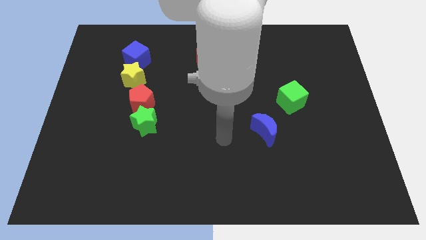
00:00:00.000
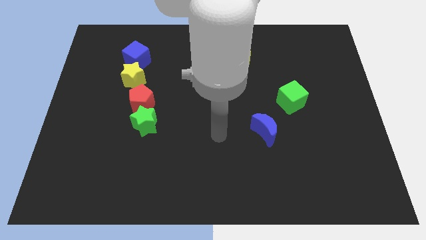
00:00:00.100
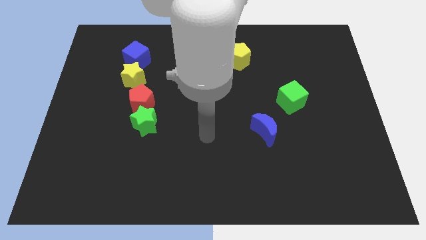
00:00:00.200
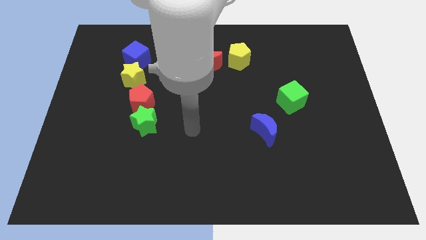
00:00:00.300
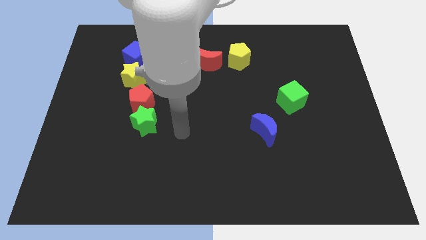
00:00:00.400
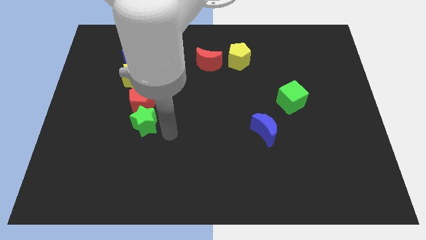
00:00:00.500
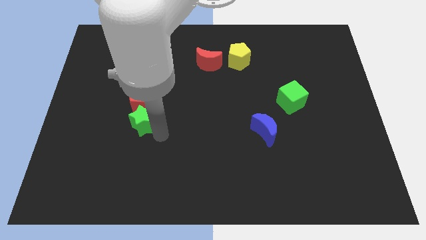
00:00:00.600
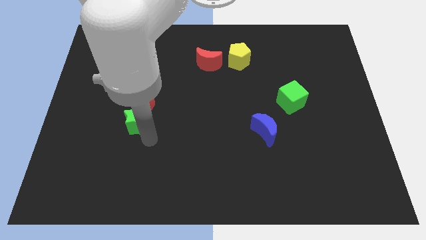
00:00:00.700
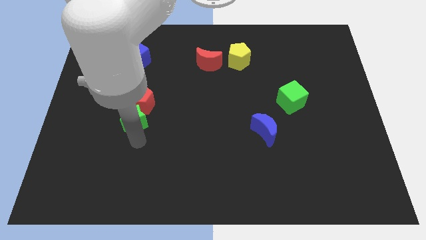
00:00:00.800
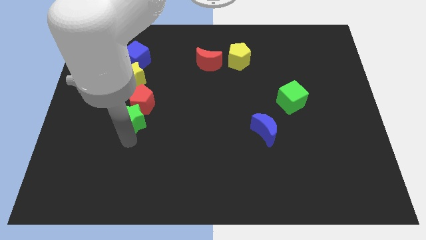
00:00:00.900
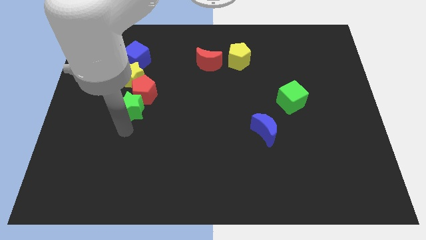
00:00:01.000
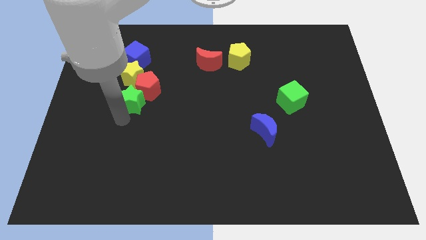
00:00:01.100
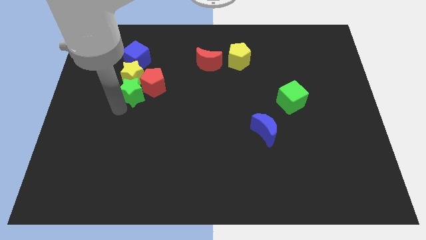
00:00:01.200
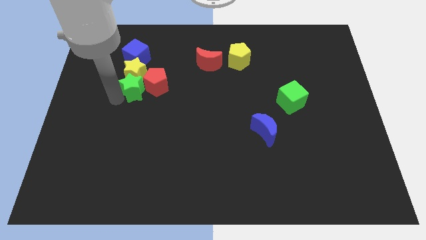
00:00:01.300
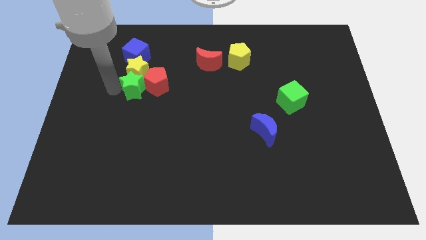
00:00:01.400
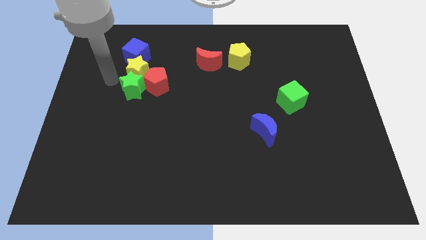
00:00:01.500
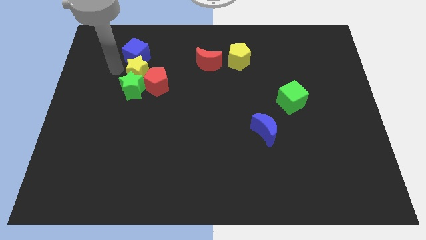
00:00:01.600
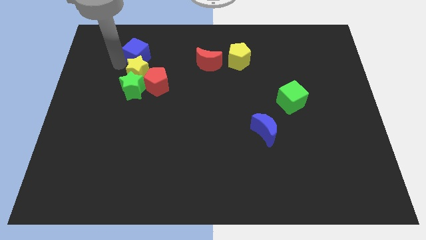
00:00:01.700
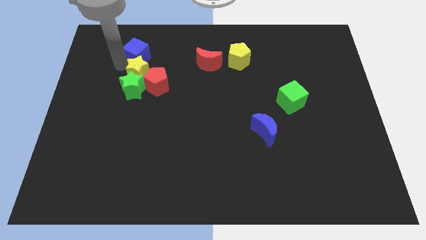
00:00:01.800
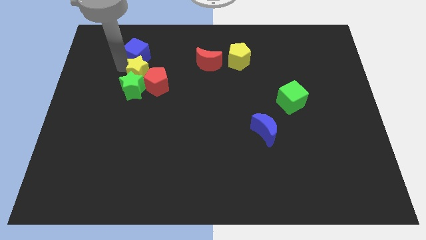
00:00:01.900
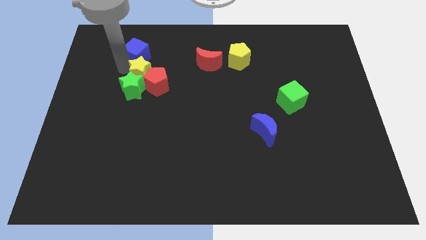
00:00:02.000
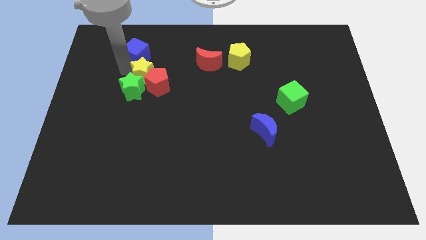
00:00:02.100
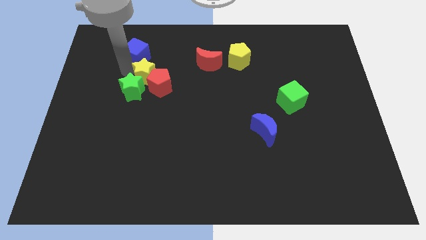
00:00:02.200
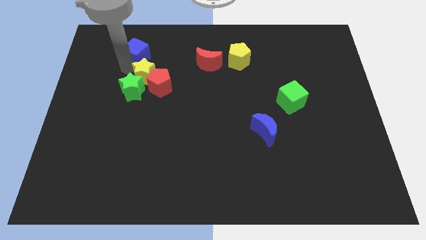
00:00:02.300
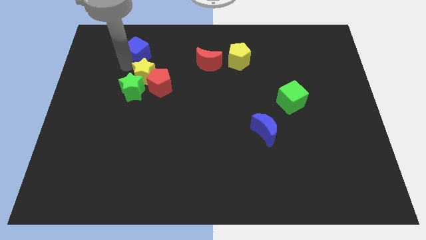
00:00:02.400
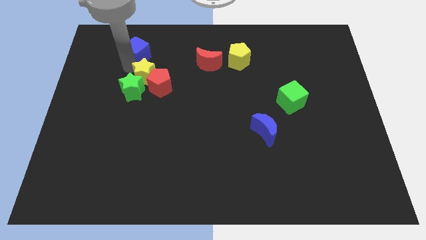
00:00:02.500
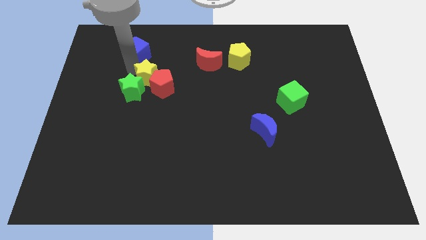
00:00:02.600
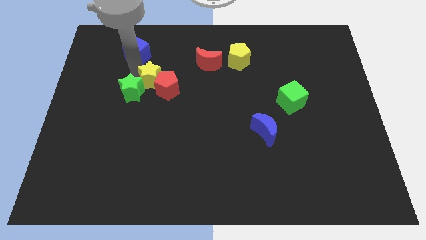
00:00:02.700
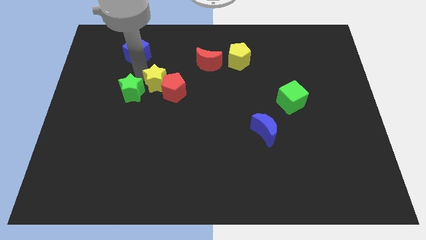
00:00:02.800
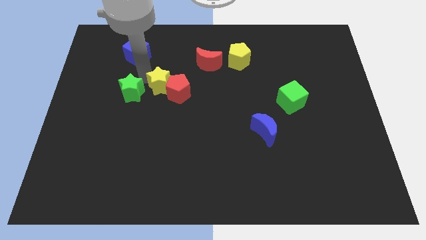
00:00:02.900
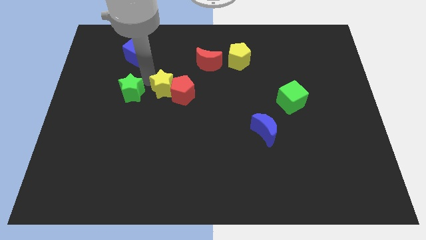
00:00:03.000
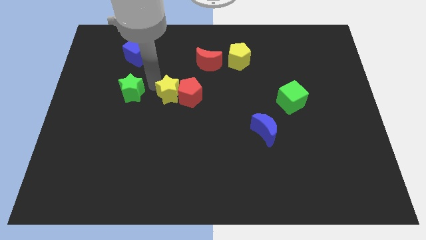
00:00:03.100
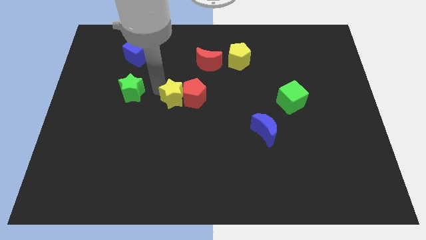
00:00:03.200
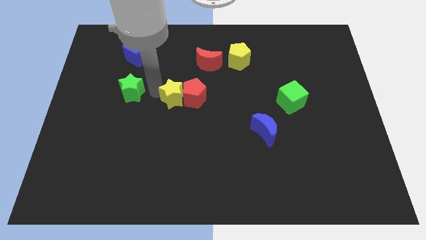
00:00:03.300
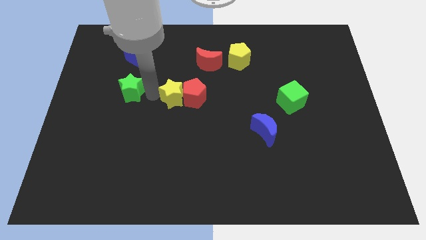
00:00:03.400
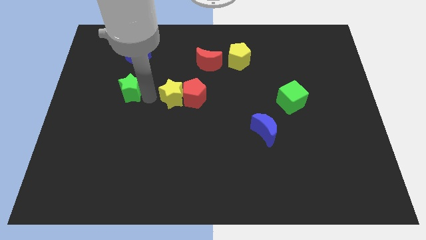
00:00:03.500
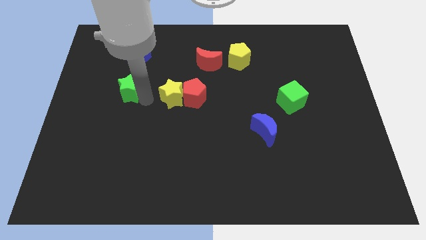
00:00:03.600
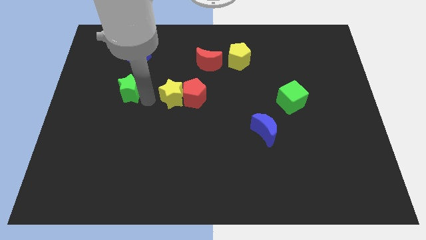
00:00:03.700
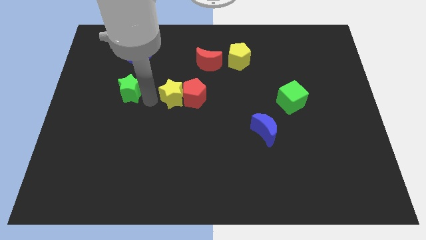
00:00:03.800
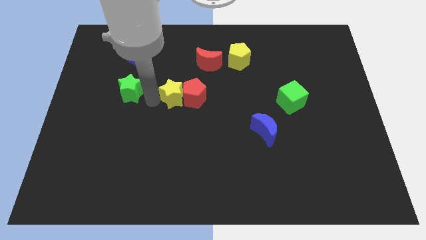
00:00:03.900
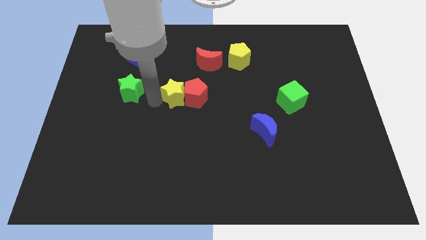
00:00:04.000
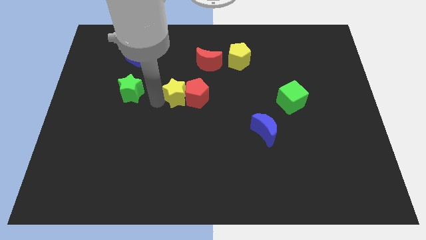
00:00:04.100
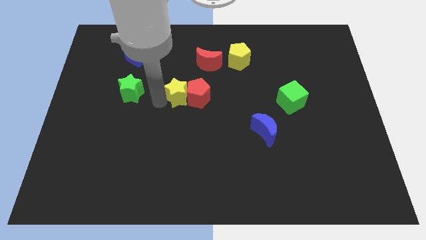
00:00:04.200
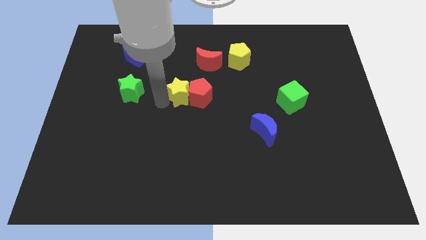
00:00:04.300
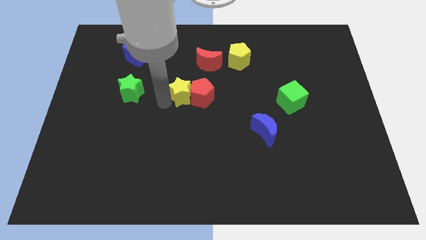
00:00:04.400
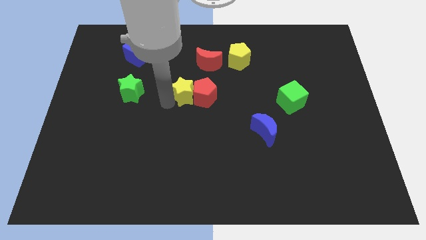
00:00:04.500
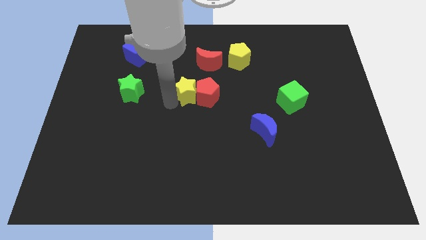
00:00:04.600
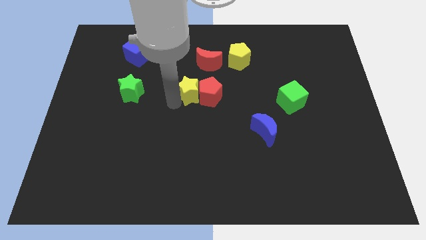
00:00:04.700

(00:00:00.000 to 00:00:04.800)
slide the yellow star below the red moon

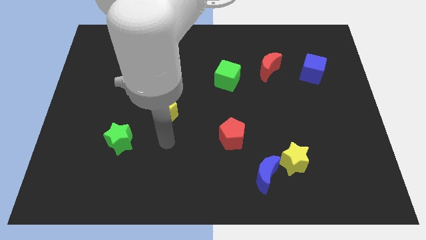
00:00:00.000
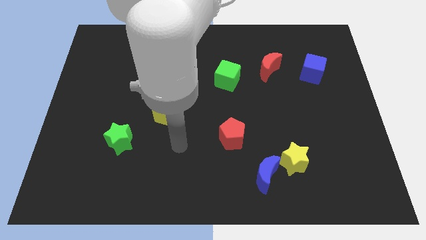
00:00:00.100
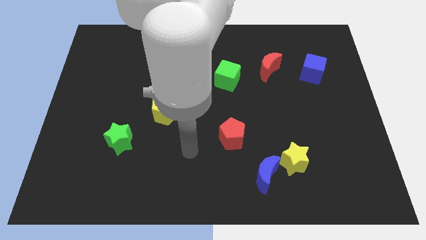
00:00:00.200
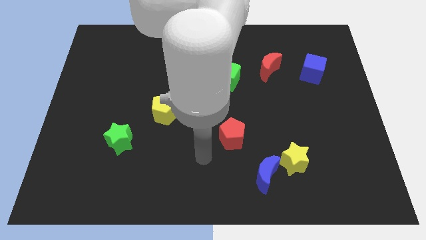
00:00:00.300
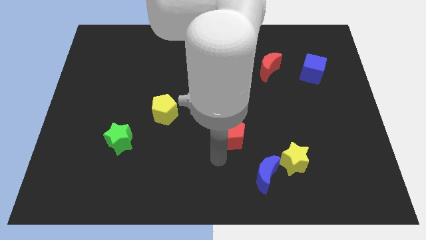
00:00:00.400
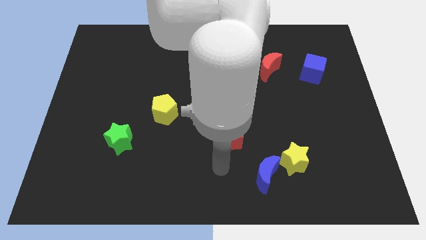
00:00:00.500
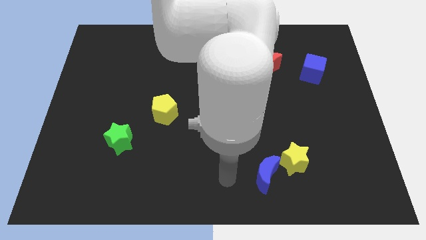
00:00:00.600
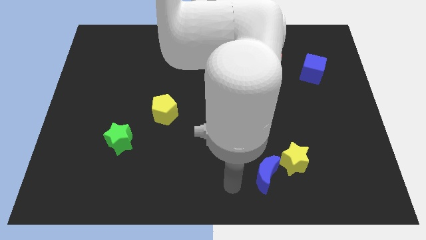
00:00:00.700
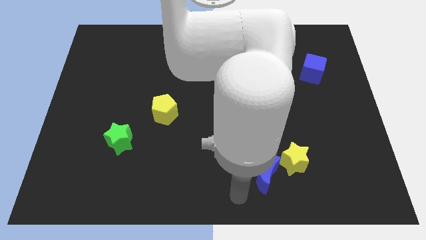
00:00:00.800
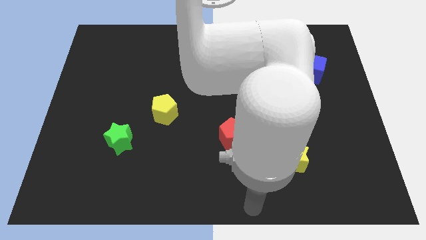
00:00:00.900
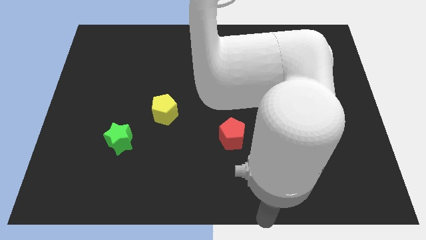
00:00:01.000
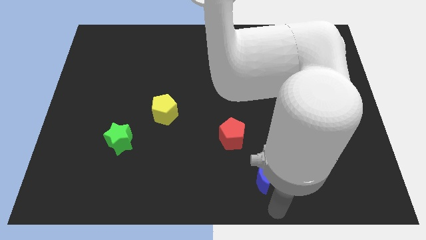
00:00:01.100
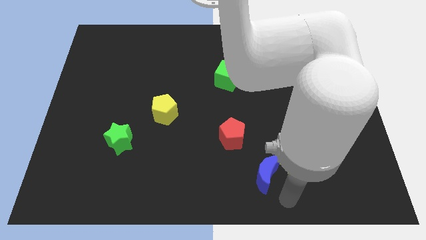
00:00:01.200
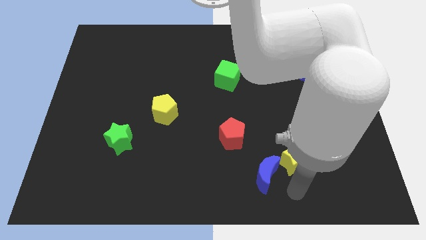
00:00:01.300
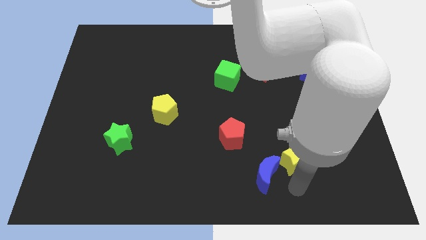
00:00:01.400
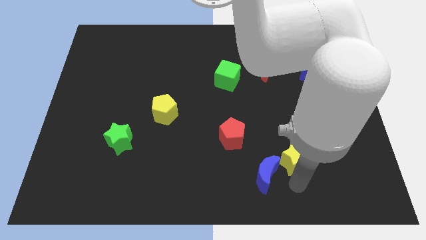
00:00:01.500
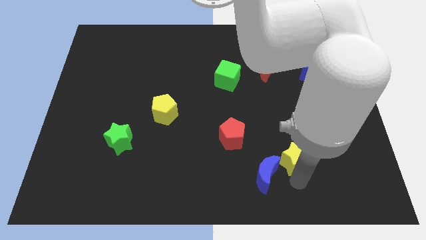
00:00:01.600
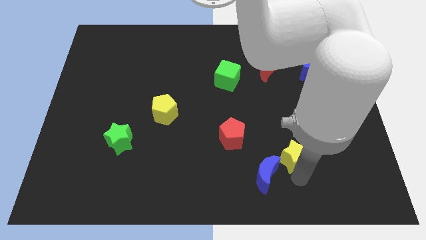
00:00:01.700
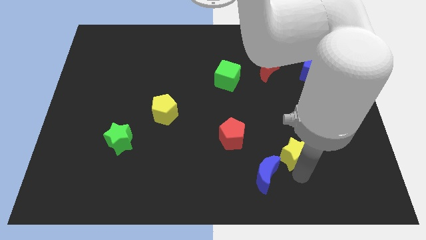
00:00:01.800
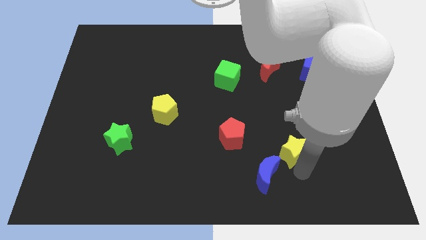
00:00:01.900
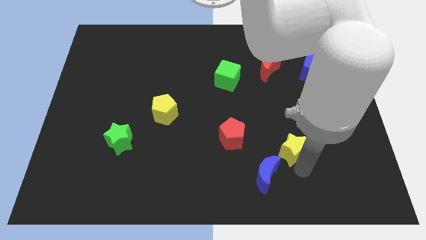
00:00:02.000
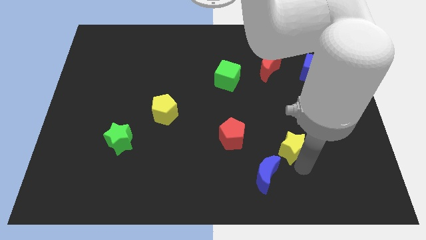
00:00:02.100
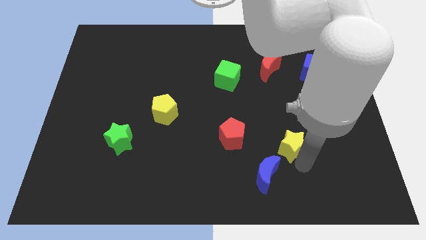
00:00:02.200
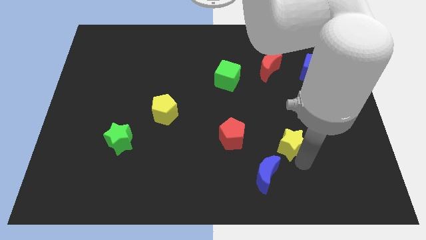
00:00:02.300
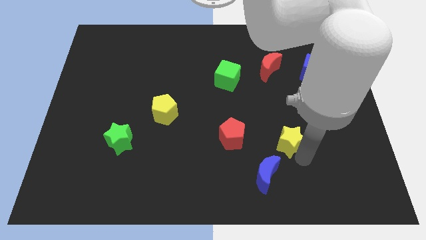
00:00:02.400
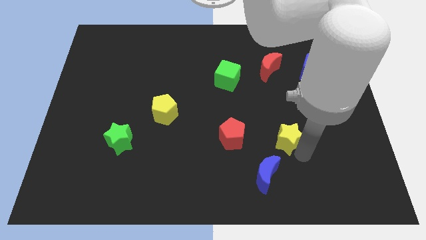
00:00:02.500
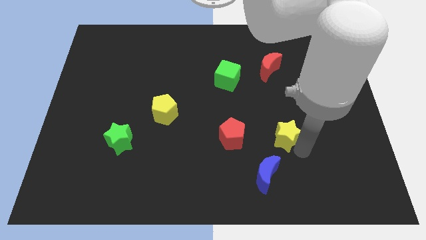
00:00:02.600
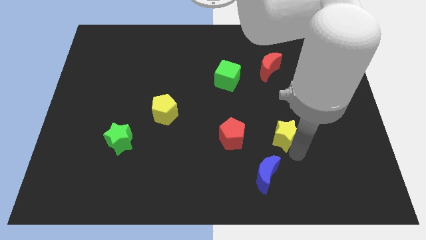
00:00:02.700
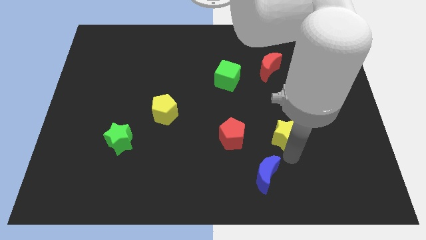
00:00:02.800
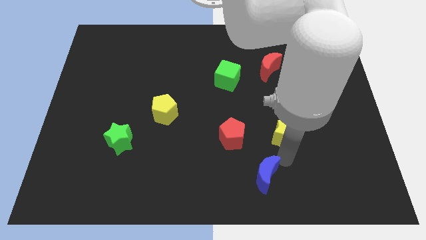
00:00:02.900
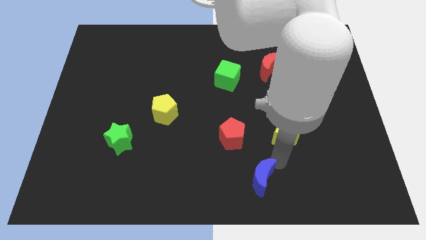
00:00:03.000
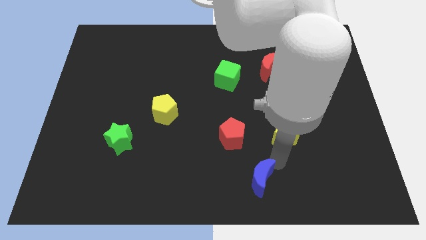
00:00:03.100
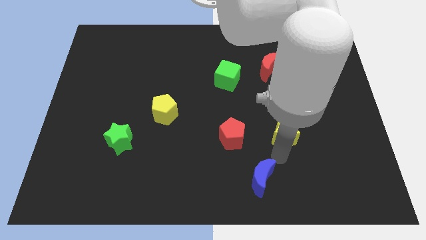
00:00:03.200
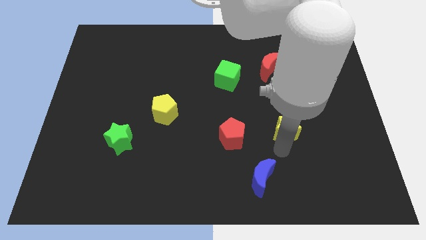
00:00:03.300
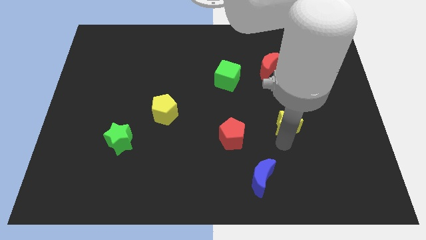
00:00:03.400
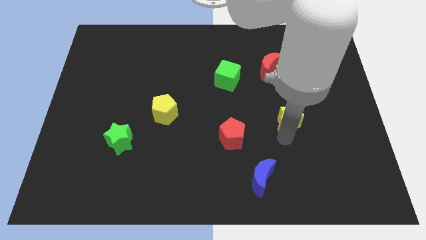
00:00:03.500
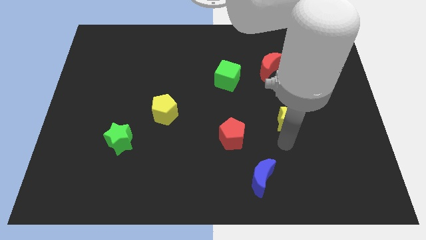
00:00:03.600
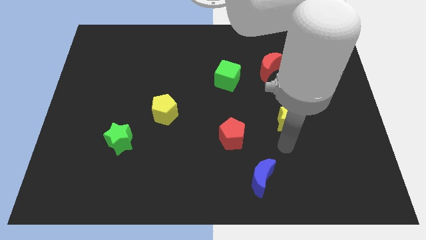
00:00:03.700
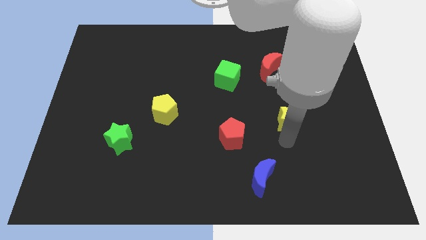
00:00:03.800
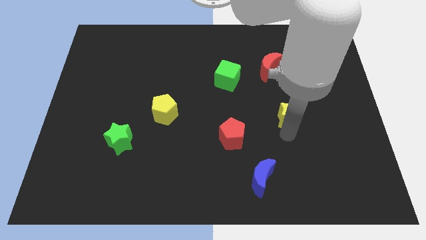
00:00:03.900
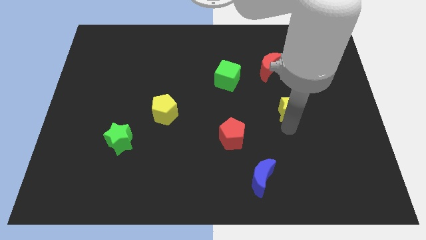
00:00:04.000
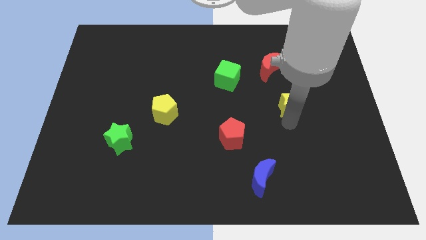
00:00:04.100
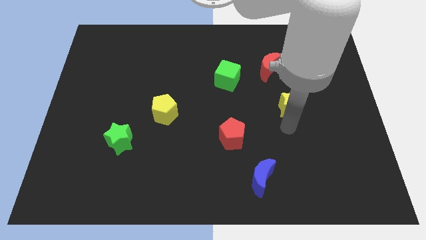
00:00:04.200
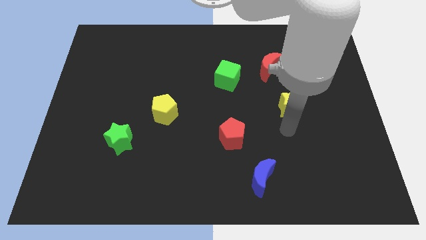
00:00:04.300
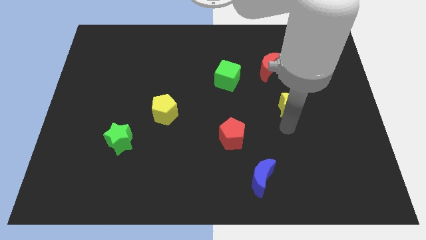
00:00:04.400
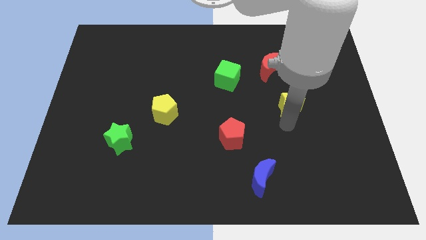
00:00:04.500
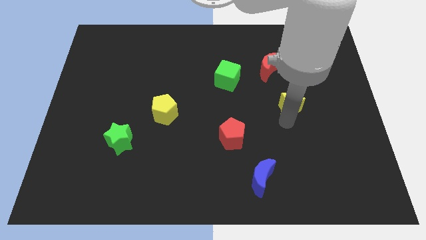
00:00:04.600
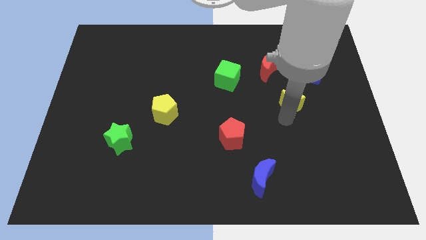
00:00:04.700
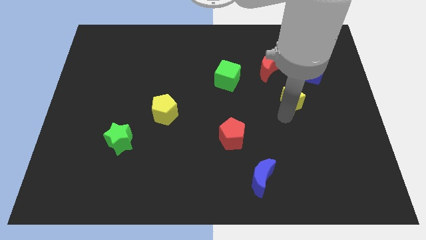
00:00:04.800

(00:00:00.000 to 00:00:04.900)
move the yellow star to the bottom left of the blue cube
